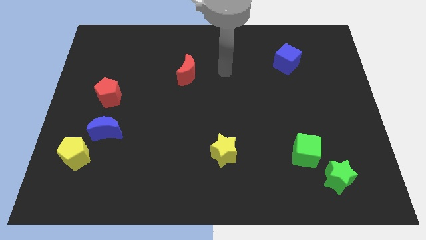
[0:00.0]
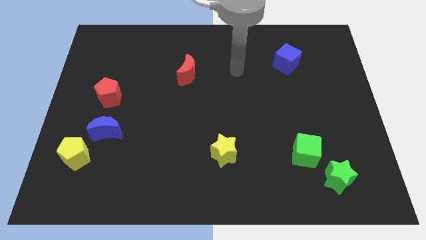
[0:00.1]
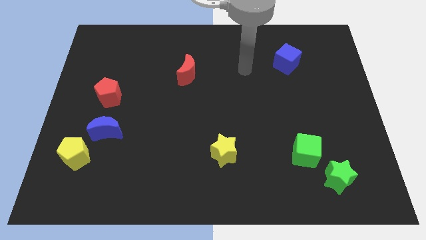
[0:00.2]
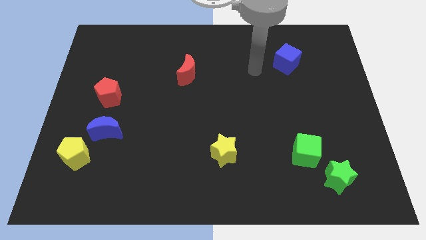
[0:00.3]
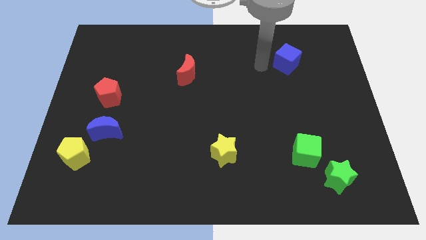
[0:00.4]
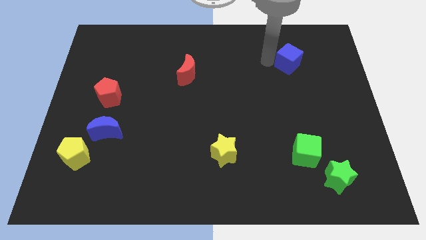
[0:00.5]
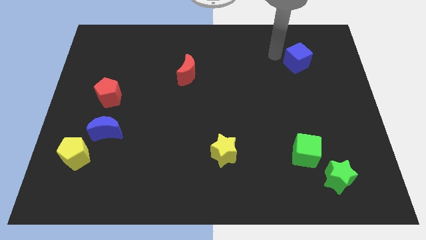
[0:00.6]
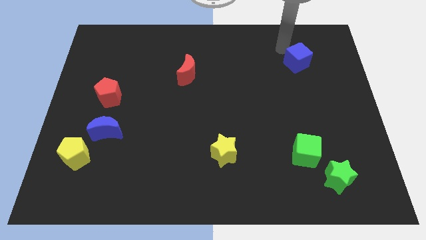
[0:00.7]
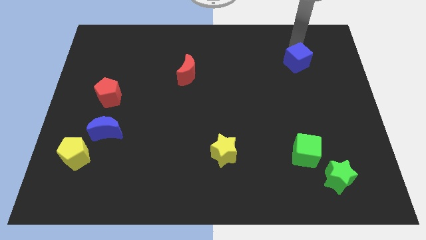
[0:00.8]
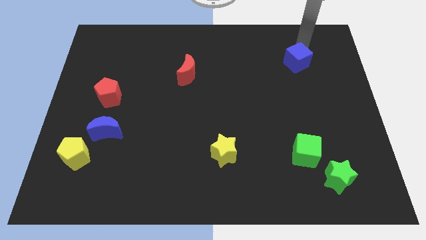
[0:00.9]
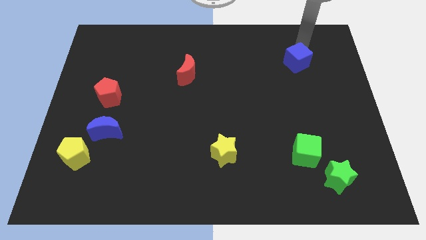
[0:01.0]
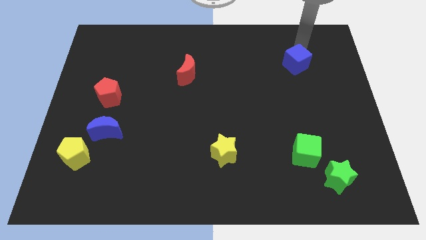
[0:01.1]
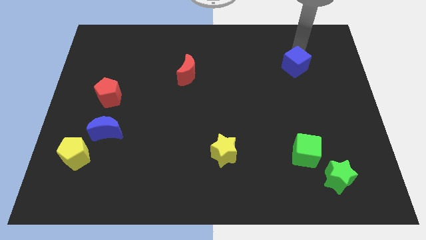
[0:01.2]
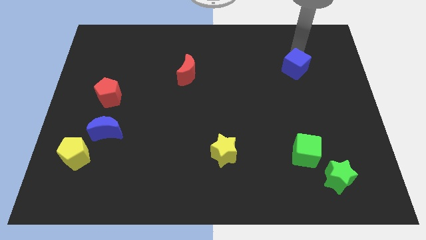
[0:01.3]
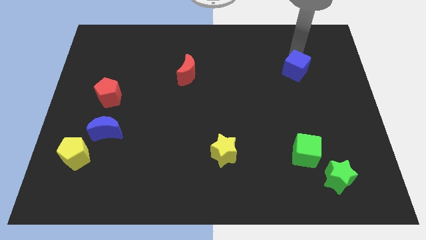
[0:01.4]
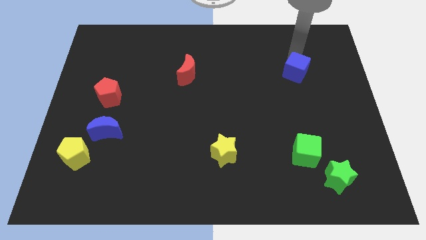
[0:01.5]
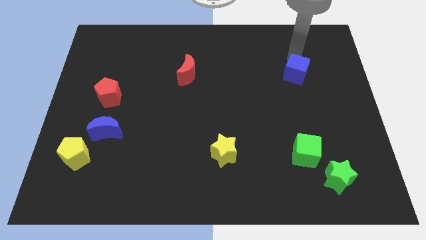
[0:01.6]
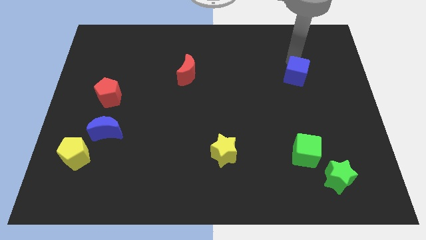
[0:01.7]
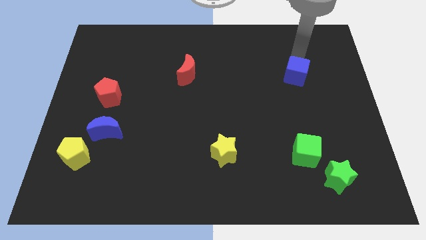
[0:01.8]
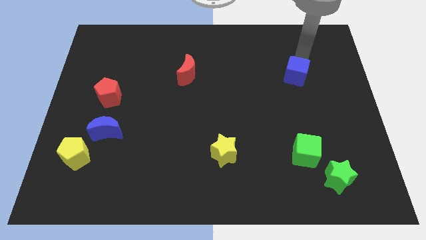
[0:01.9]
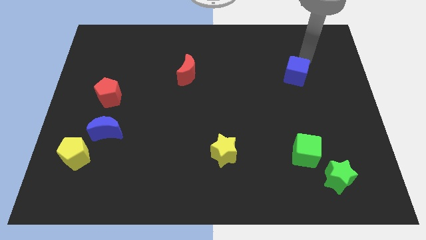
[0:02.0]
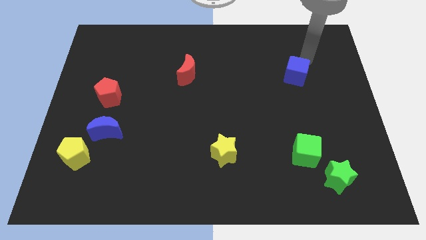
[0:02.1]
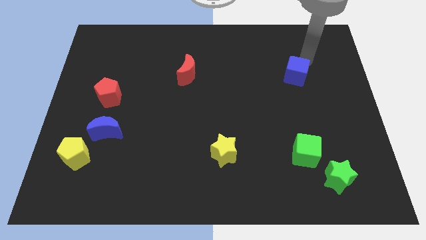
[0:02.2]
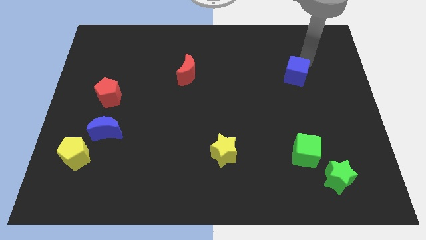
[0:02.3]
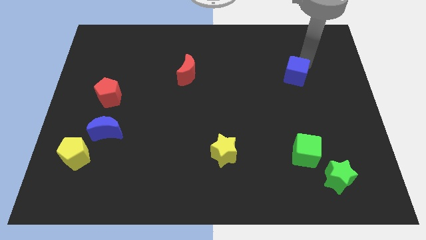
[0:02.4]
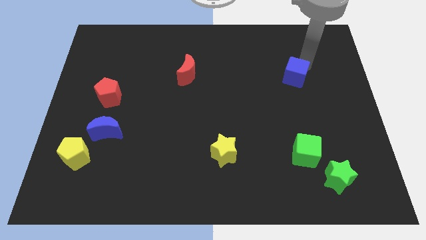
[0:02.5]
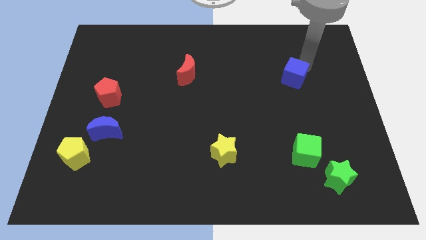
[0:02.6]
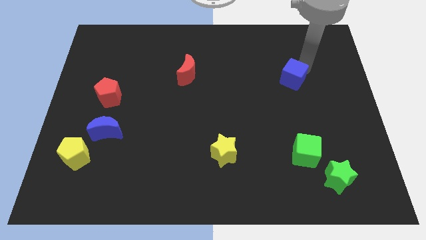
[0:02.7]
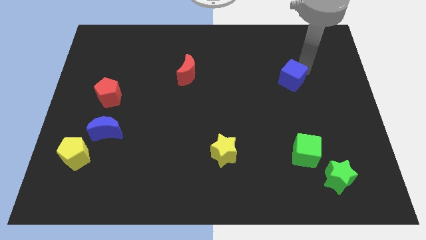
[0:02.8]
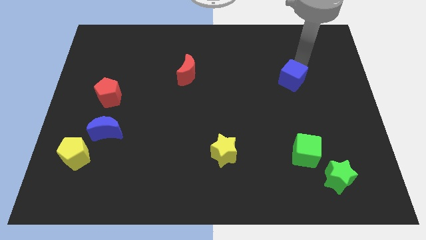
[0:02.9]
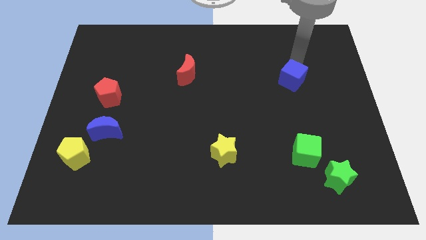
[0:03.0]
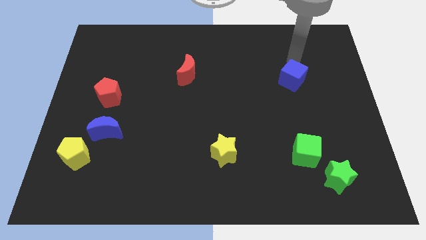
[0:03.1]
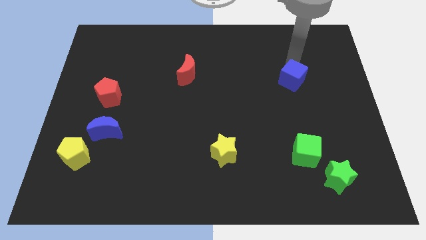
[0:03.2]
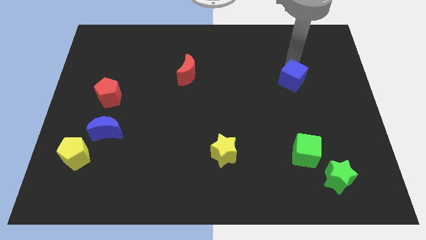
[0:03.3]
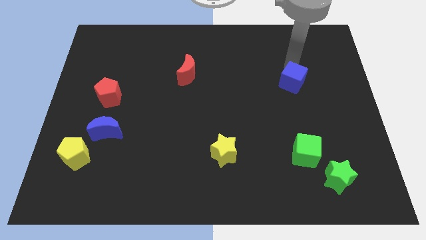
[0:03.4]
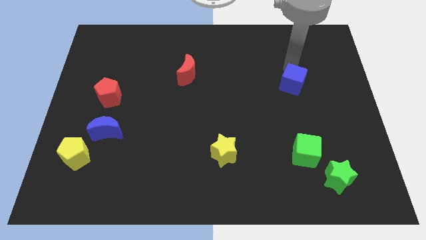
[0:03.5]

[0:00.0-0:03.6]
move the blue cube downwards a bit

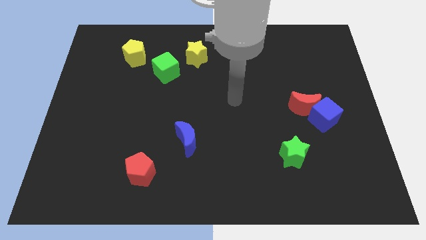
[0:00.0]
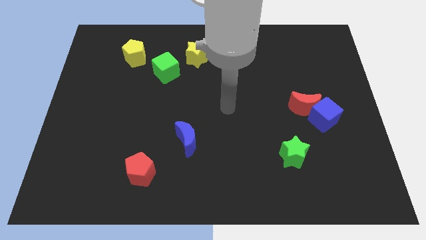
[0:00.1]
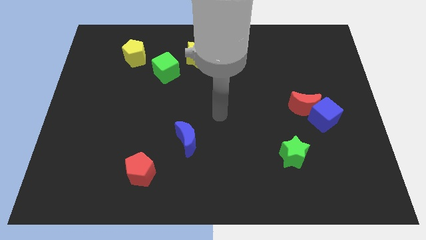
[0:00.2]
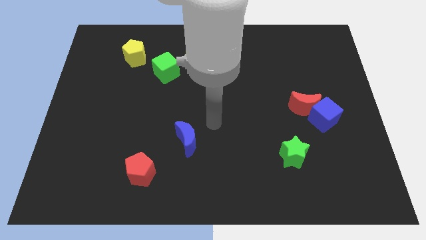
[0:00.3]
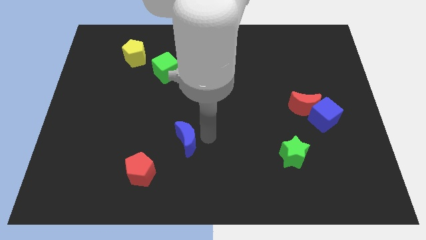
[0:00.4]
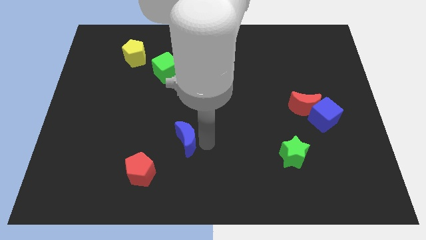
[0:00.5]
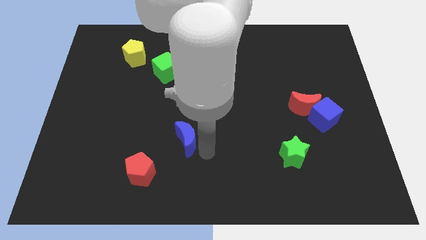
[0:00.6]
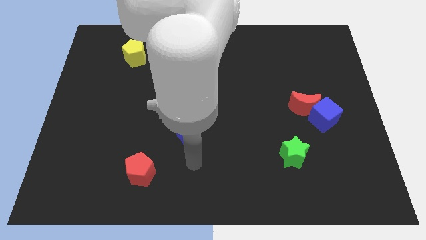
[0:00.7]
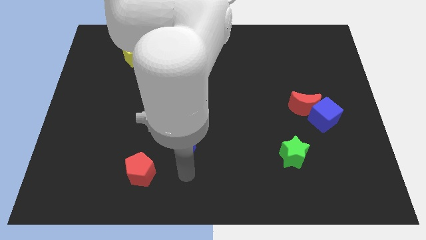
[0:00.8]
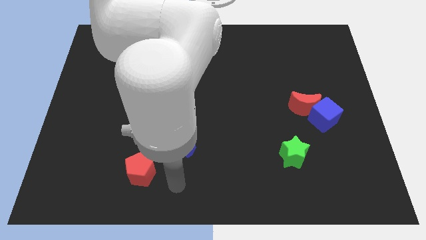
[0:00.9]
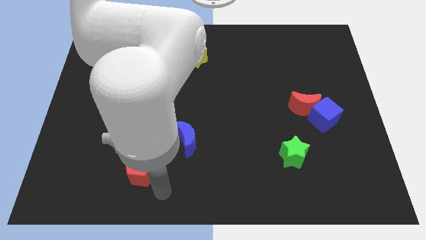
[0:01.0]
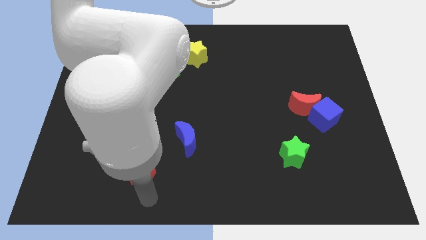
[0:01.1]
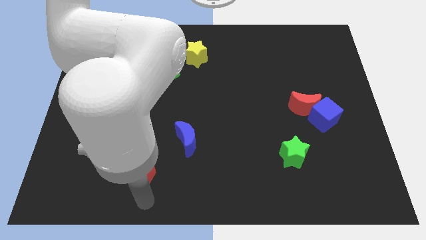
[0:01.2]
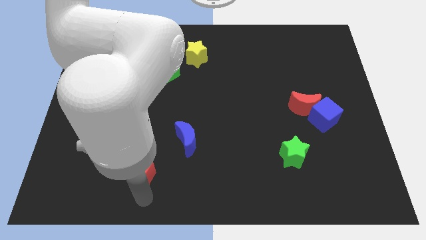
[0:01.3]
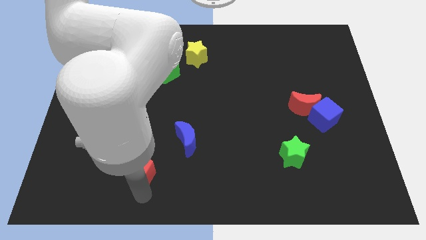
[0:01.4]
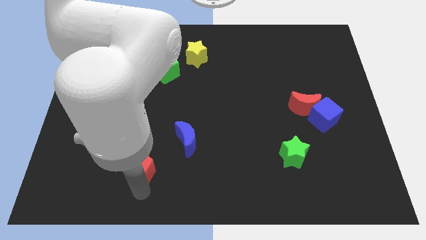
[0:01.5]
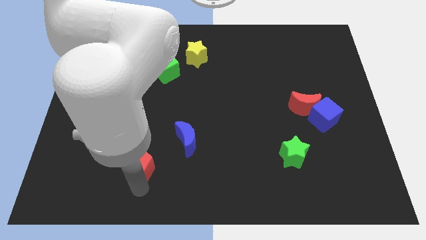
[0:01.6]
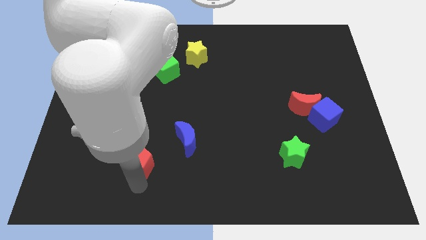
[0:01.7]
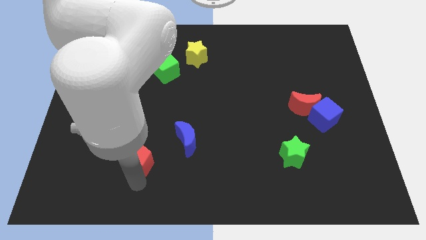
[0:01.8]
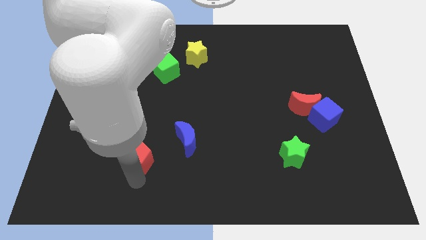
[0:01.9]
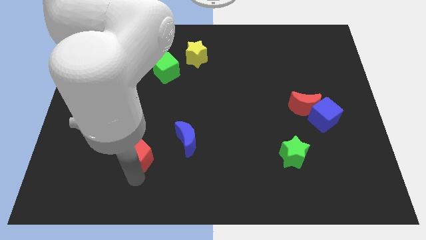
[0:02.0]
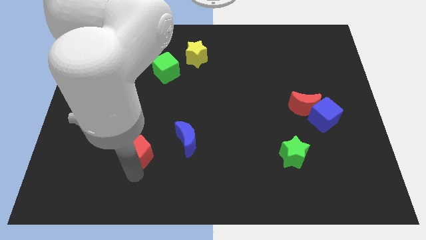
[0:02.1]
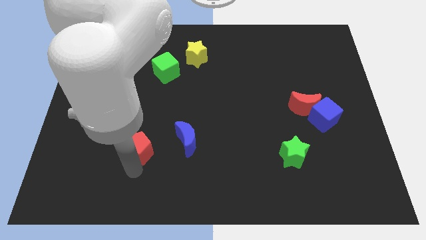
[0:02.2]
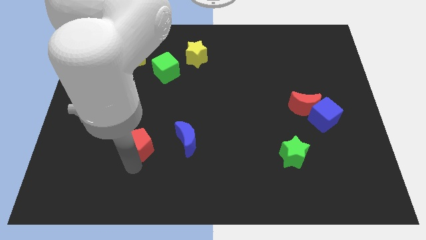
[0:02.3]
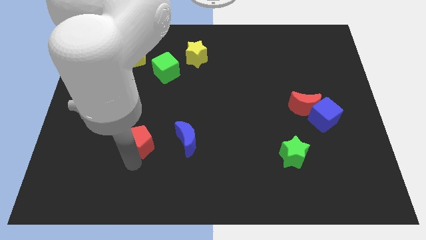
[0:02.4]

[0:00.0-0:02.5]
move the red pentagon slightly upwards

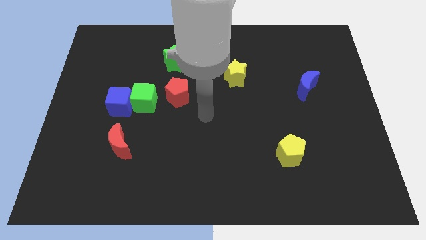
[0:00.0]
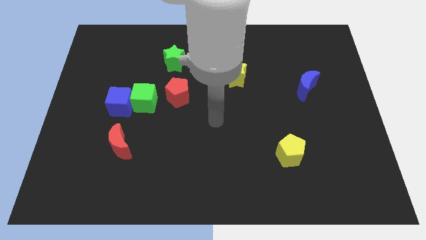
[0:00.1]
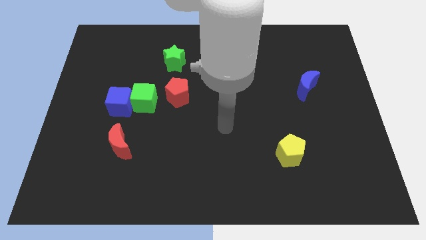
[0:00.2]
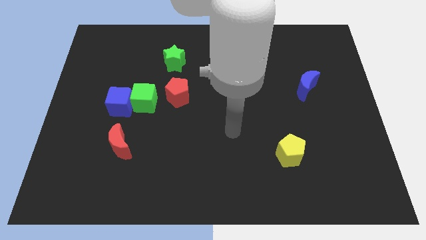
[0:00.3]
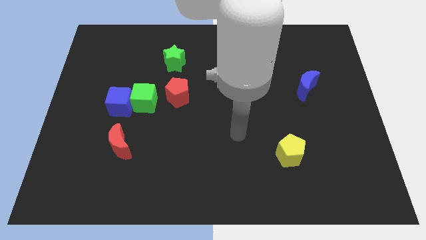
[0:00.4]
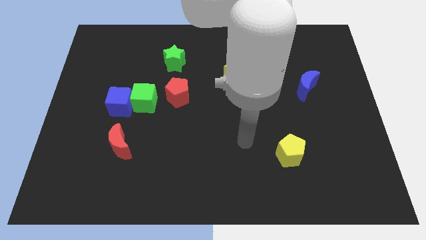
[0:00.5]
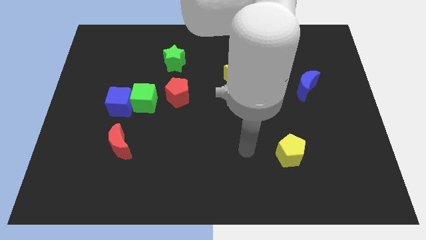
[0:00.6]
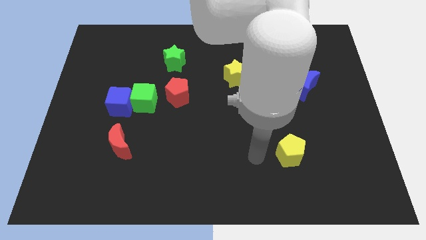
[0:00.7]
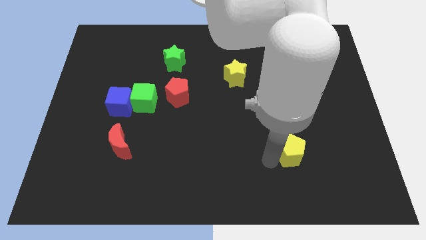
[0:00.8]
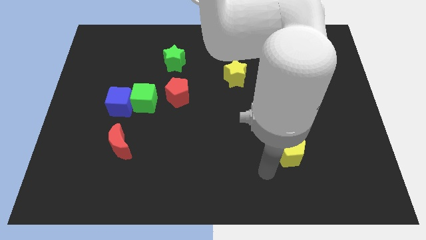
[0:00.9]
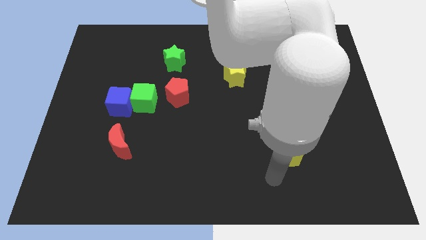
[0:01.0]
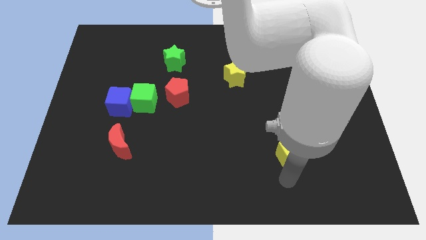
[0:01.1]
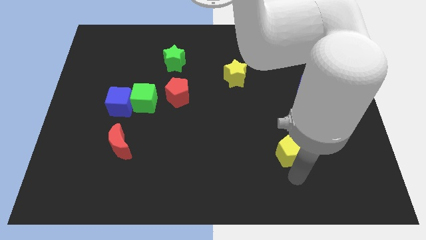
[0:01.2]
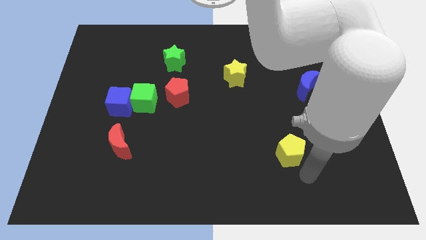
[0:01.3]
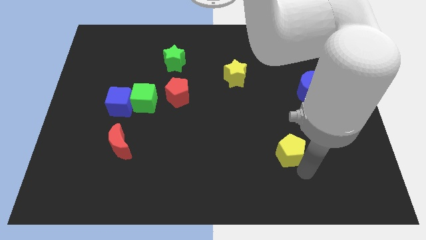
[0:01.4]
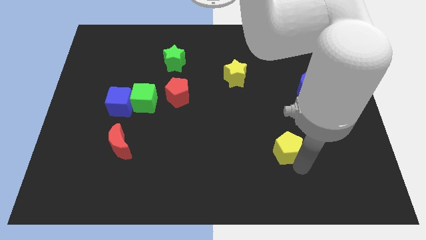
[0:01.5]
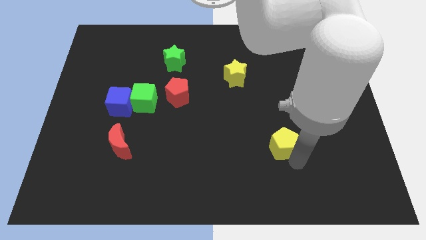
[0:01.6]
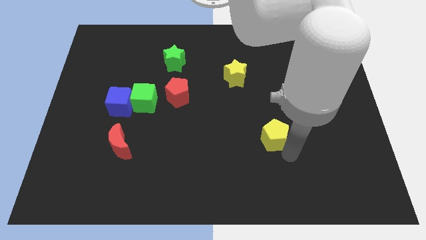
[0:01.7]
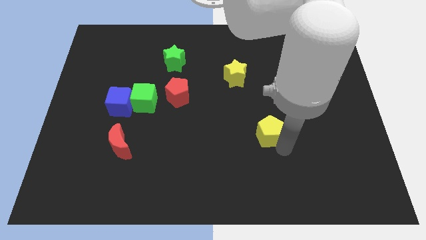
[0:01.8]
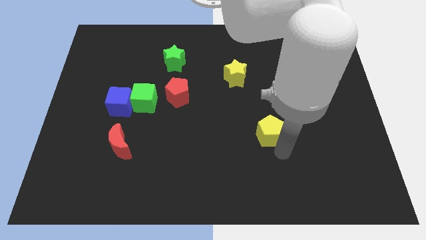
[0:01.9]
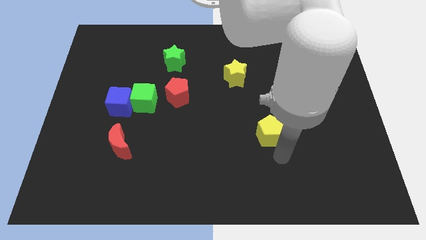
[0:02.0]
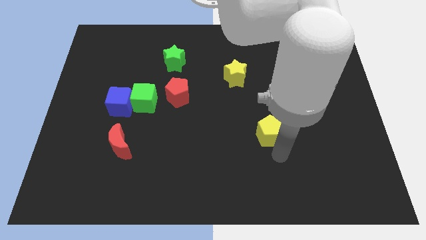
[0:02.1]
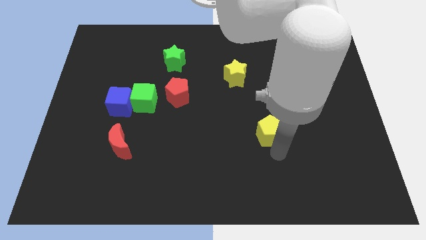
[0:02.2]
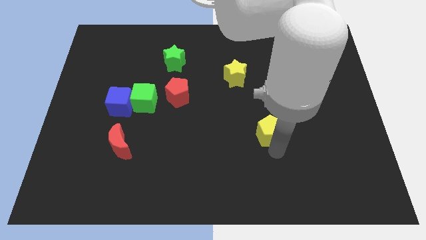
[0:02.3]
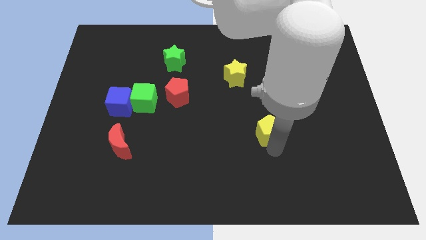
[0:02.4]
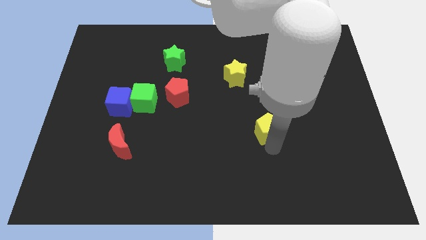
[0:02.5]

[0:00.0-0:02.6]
push the yellow pentagon up and left diagonally a little
